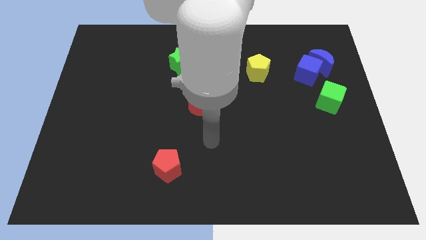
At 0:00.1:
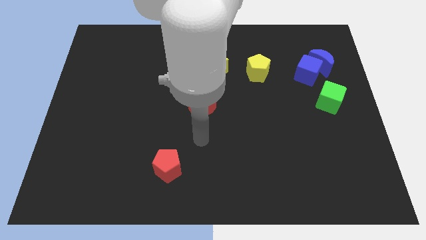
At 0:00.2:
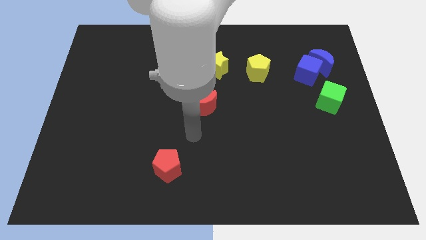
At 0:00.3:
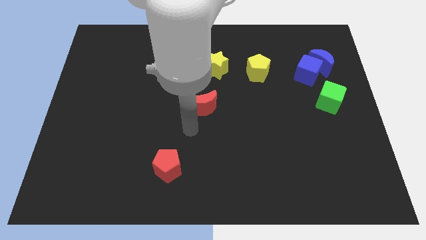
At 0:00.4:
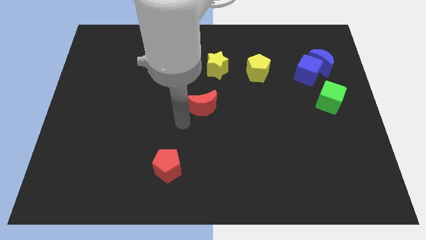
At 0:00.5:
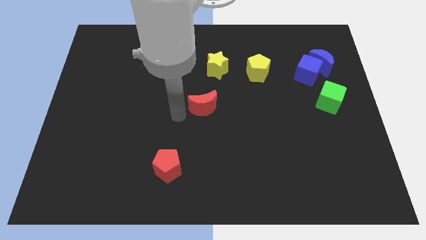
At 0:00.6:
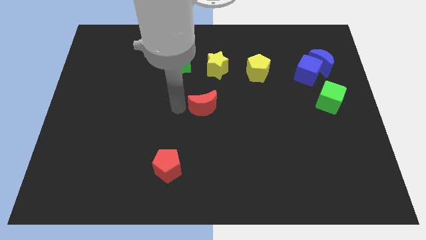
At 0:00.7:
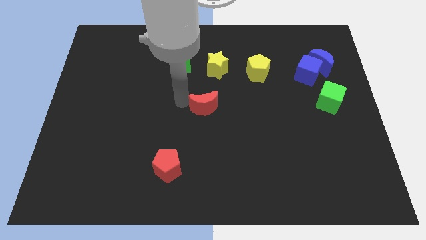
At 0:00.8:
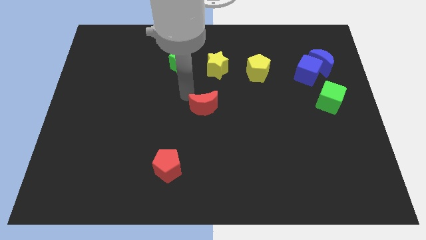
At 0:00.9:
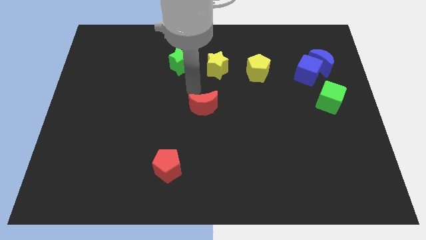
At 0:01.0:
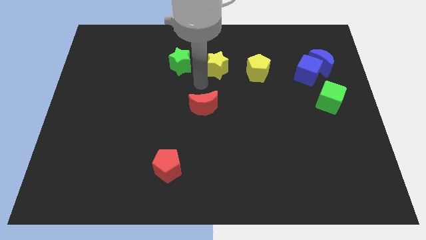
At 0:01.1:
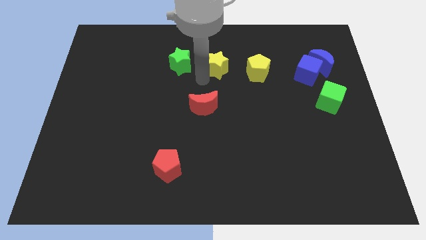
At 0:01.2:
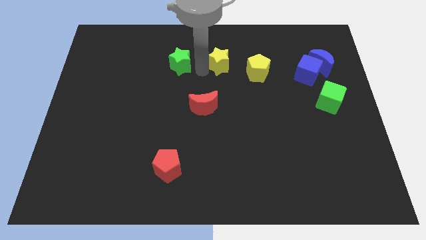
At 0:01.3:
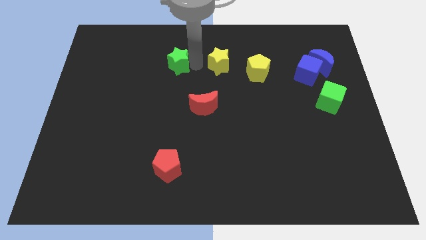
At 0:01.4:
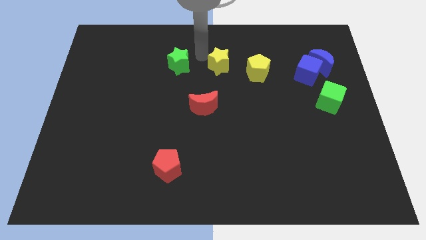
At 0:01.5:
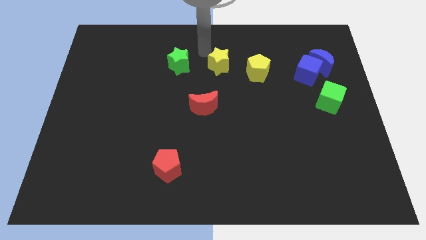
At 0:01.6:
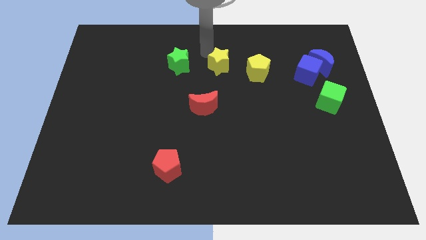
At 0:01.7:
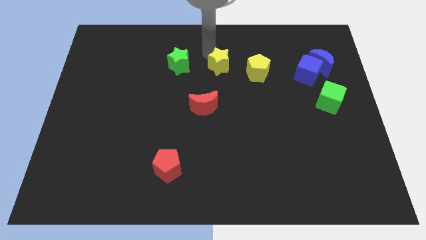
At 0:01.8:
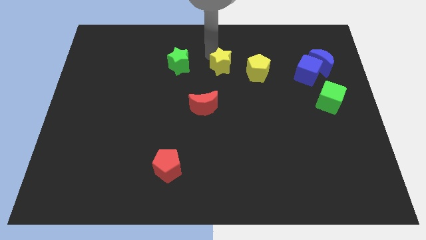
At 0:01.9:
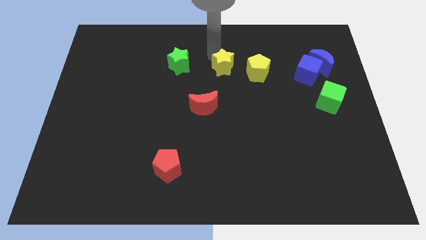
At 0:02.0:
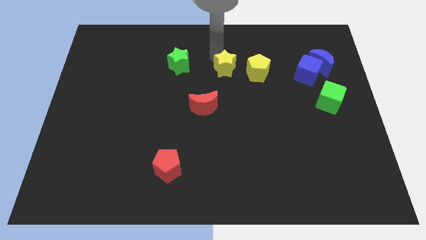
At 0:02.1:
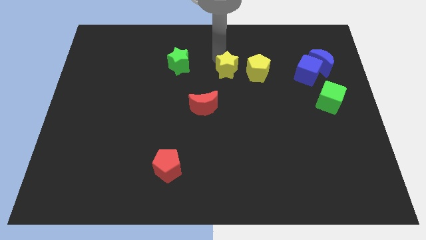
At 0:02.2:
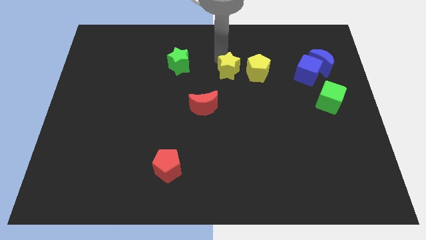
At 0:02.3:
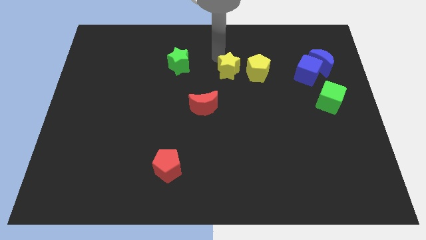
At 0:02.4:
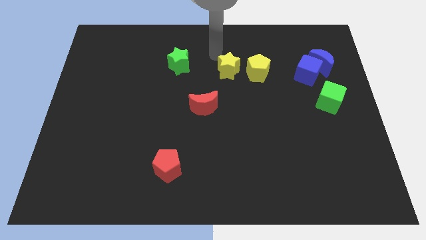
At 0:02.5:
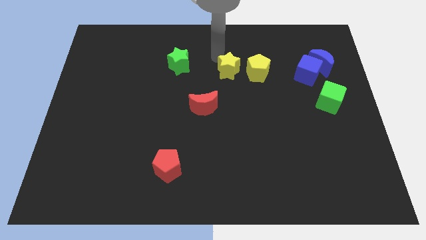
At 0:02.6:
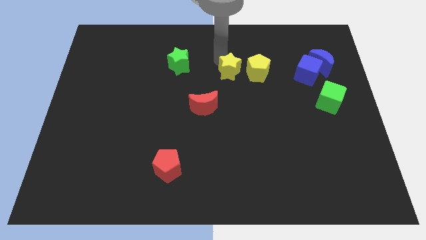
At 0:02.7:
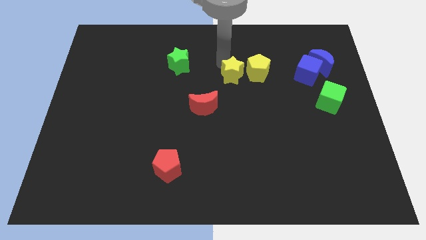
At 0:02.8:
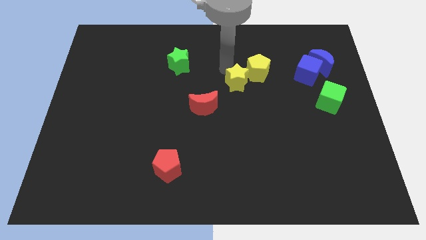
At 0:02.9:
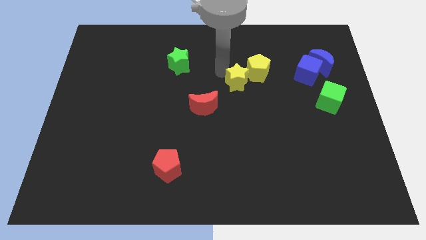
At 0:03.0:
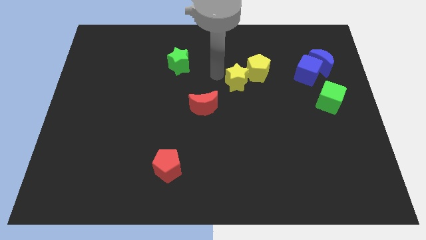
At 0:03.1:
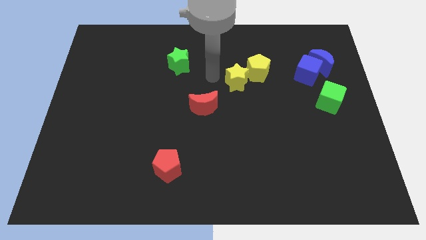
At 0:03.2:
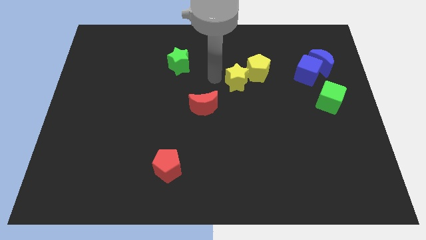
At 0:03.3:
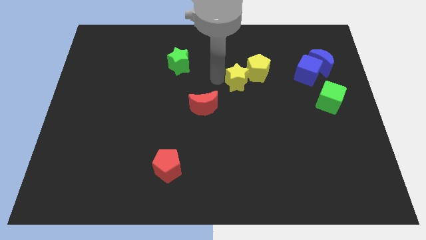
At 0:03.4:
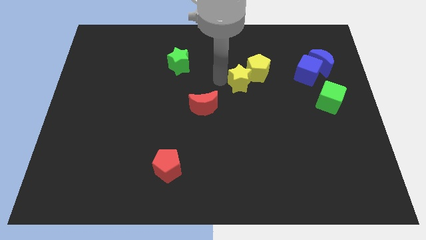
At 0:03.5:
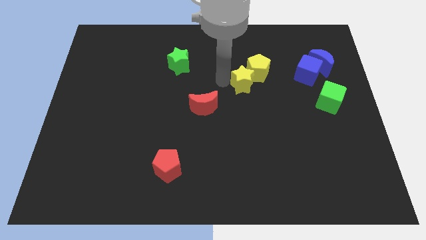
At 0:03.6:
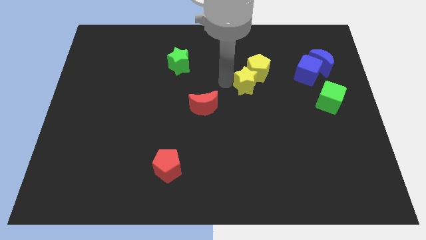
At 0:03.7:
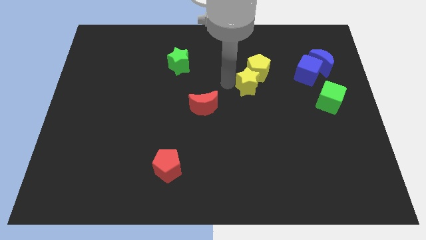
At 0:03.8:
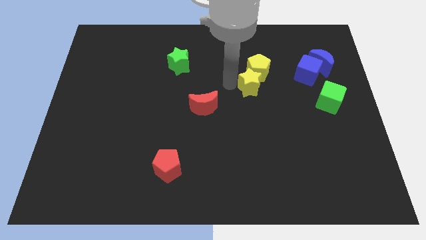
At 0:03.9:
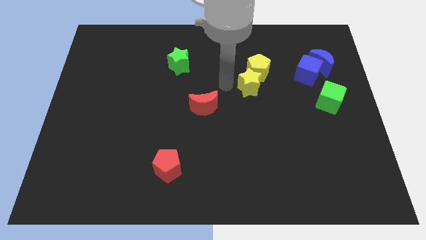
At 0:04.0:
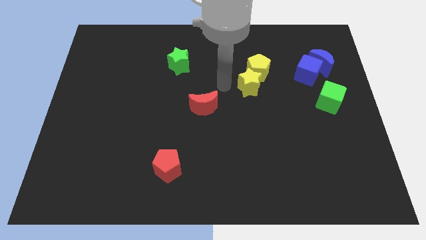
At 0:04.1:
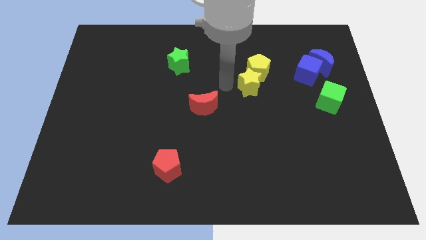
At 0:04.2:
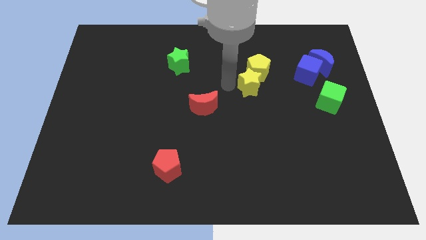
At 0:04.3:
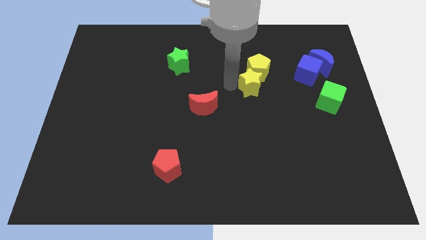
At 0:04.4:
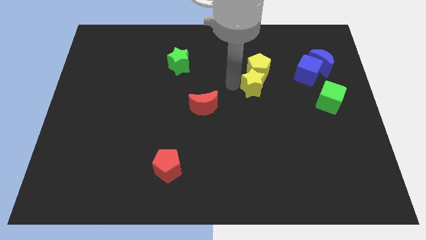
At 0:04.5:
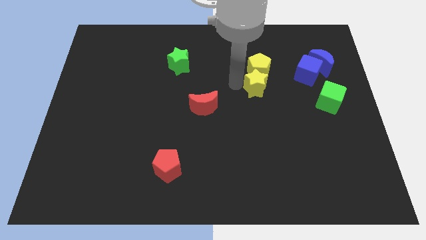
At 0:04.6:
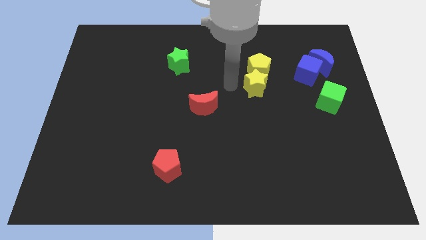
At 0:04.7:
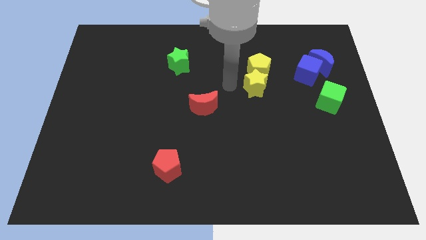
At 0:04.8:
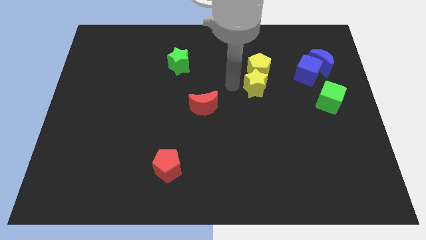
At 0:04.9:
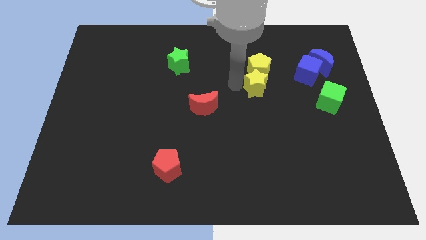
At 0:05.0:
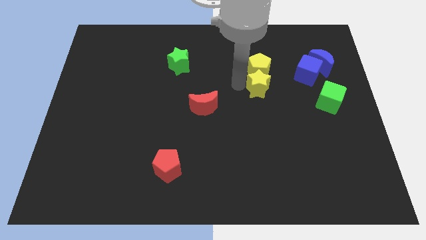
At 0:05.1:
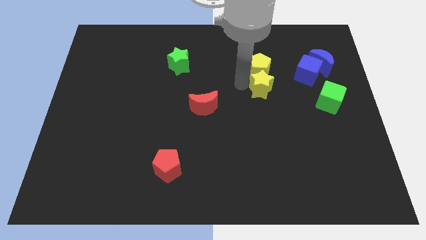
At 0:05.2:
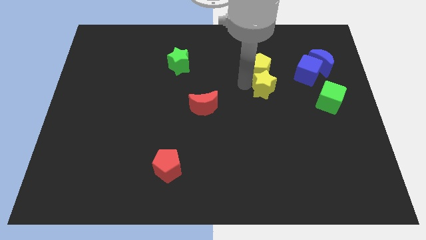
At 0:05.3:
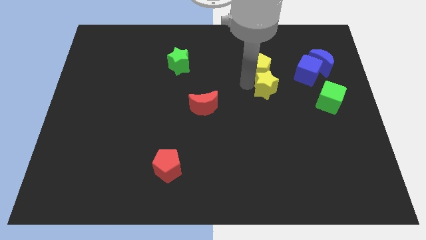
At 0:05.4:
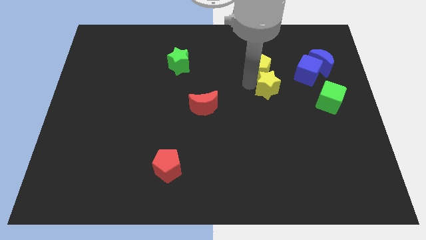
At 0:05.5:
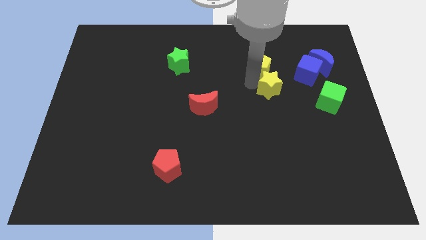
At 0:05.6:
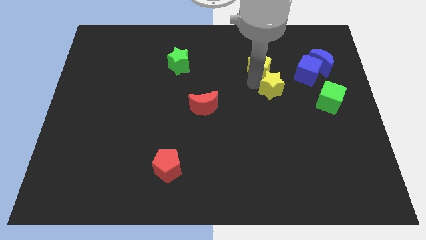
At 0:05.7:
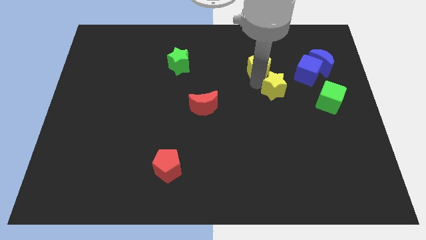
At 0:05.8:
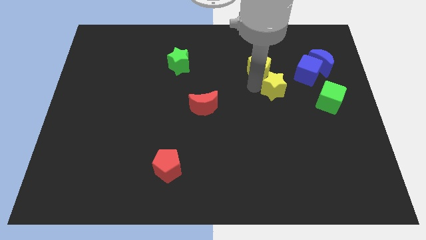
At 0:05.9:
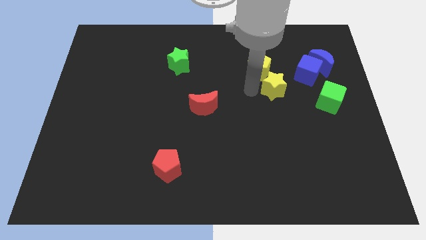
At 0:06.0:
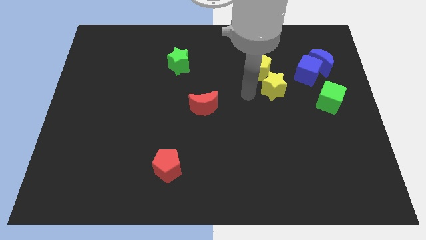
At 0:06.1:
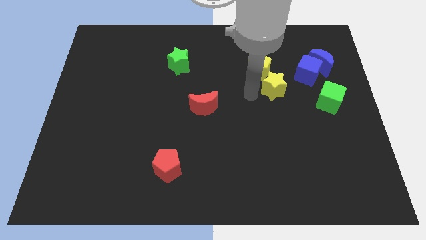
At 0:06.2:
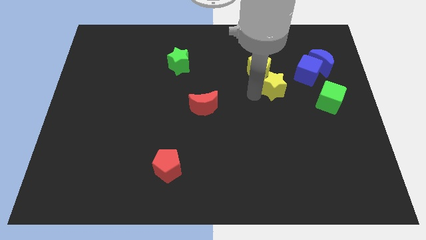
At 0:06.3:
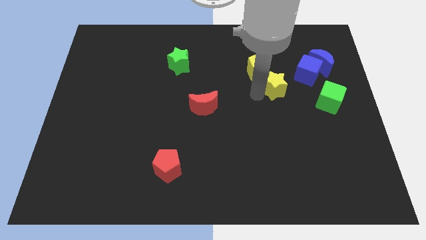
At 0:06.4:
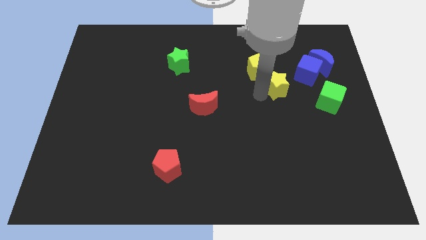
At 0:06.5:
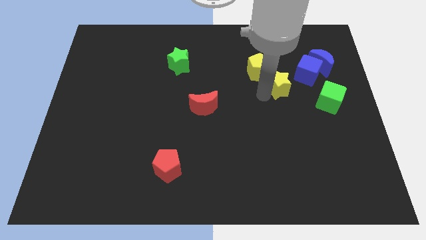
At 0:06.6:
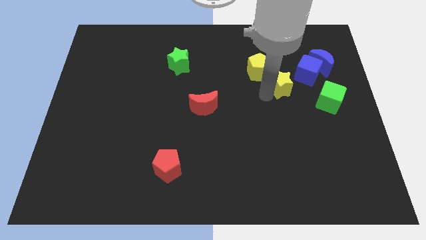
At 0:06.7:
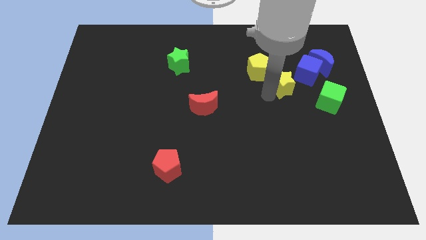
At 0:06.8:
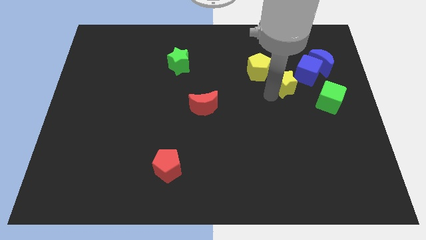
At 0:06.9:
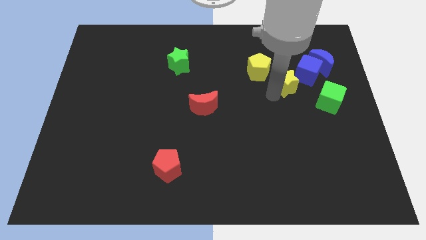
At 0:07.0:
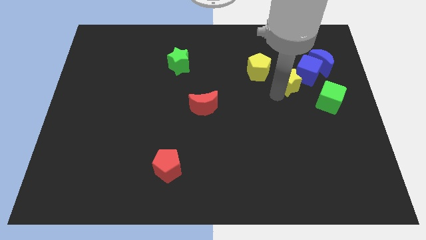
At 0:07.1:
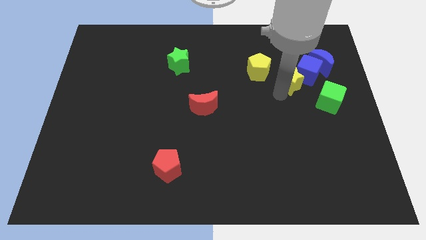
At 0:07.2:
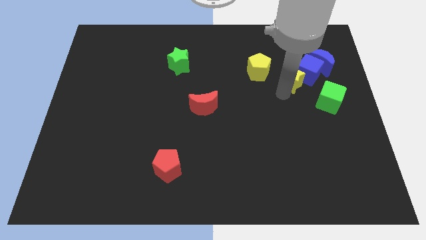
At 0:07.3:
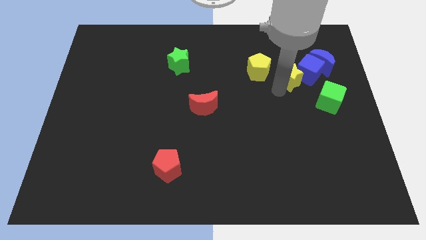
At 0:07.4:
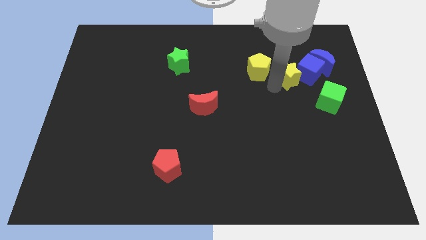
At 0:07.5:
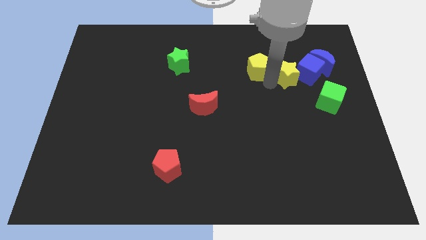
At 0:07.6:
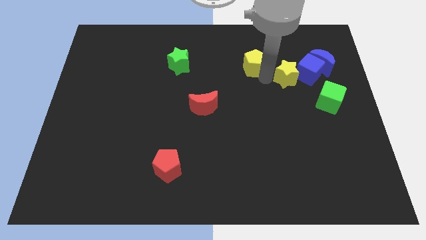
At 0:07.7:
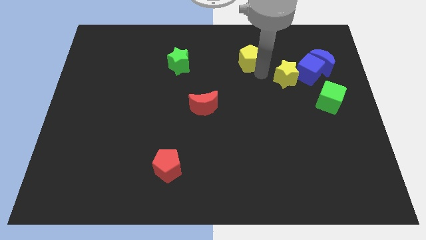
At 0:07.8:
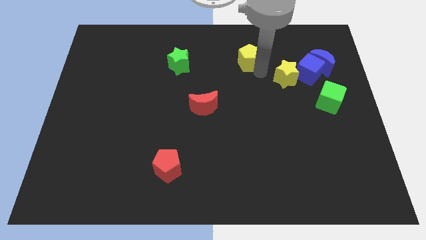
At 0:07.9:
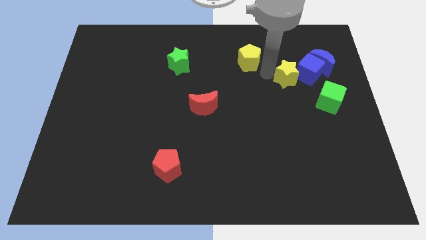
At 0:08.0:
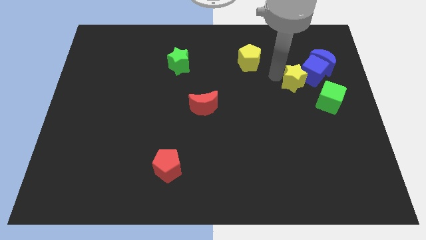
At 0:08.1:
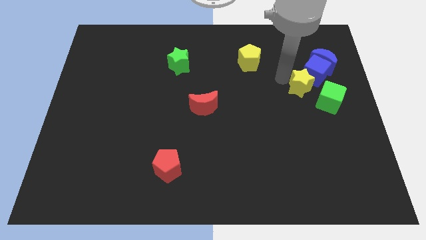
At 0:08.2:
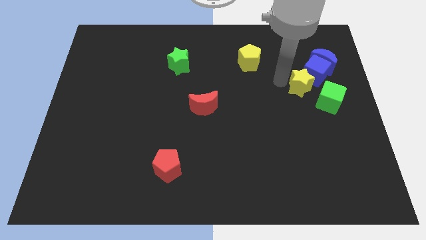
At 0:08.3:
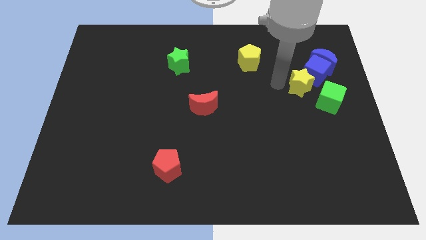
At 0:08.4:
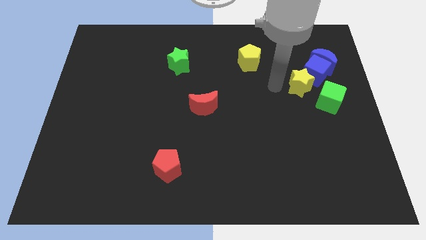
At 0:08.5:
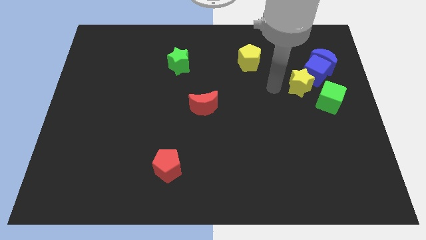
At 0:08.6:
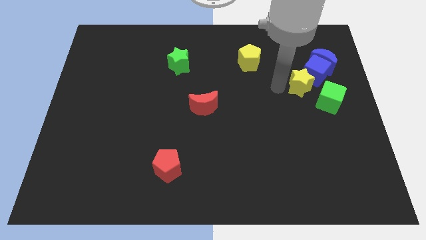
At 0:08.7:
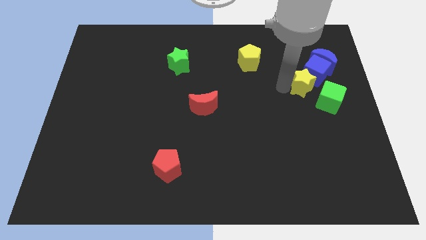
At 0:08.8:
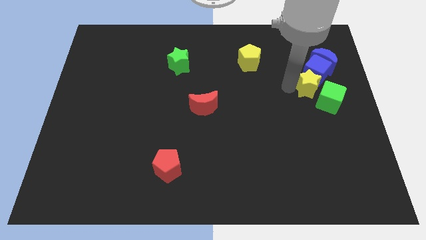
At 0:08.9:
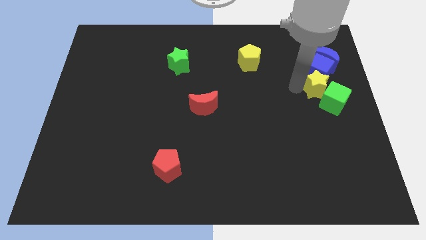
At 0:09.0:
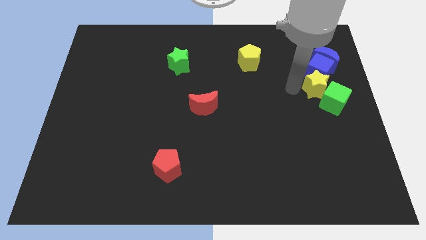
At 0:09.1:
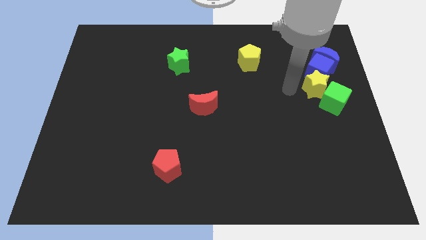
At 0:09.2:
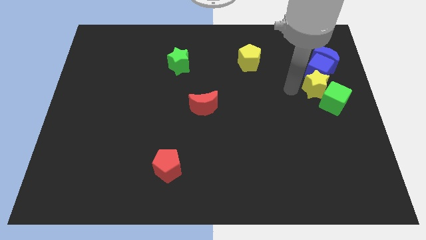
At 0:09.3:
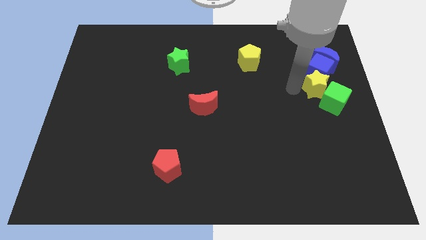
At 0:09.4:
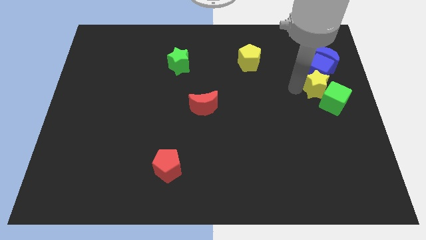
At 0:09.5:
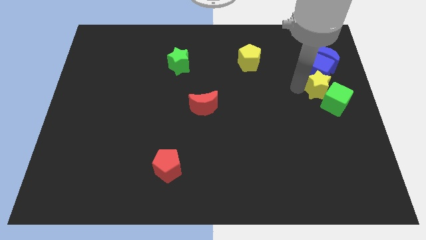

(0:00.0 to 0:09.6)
slide the yellow star to the right side of the board
